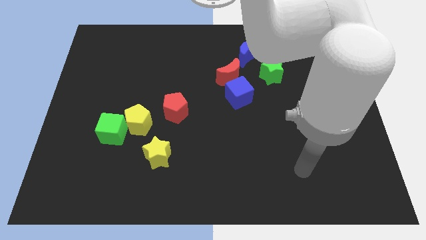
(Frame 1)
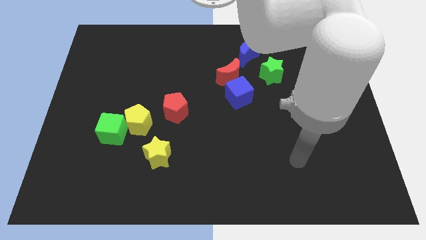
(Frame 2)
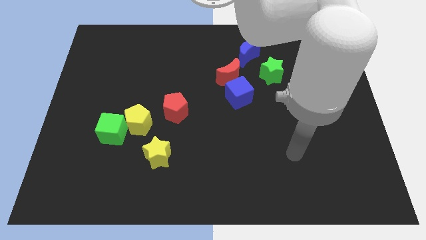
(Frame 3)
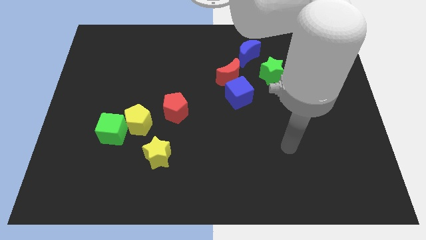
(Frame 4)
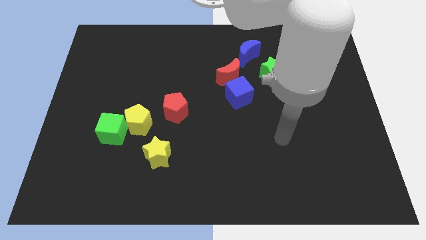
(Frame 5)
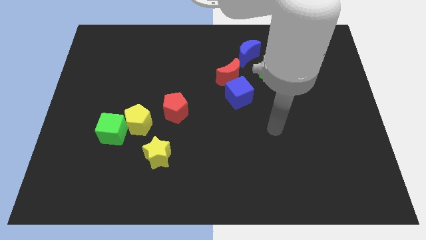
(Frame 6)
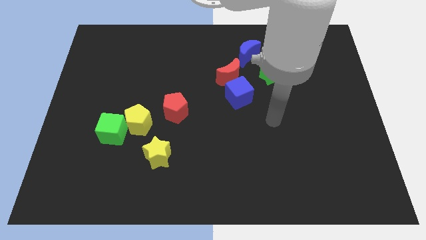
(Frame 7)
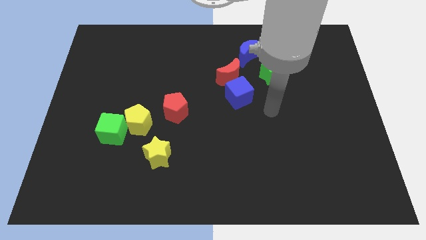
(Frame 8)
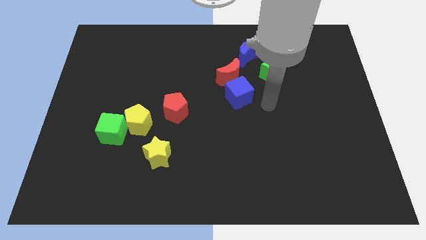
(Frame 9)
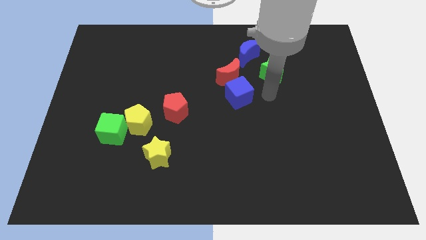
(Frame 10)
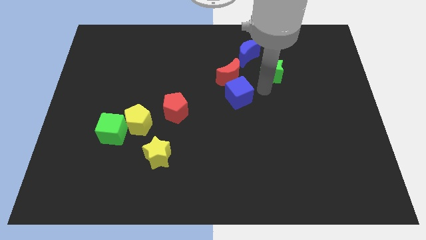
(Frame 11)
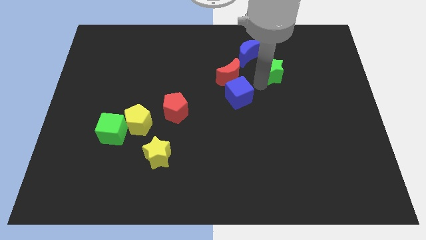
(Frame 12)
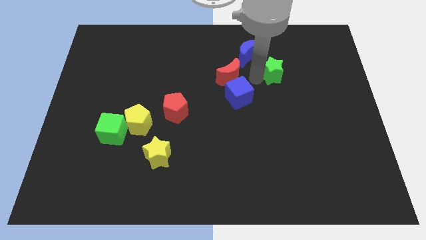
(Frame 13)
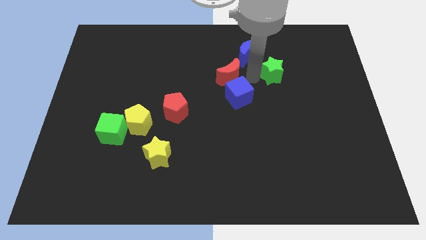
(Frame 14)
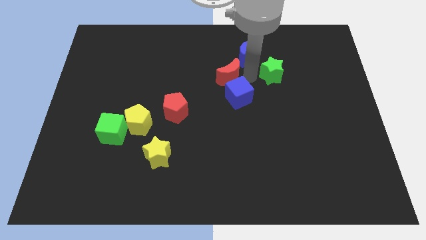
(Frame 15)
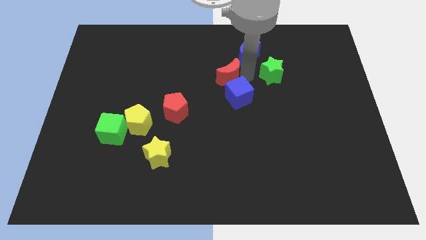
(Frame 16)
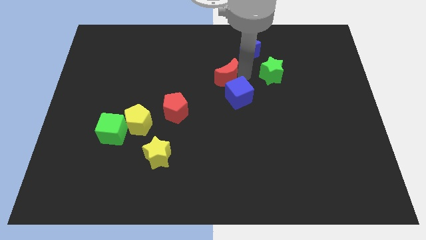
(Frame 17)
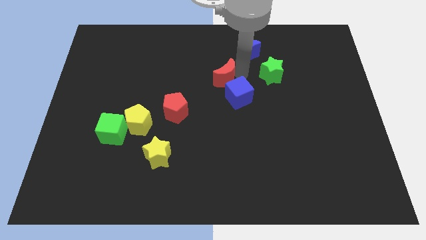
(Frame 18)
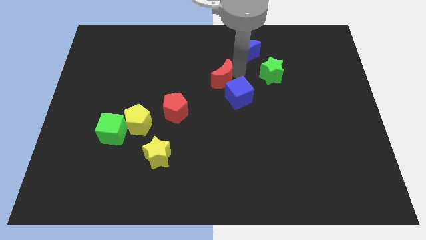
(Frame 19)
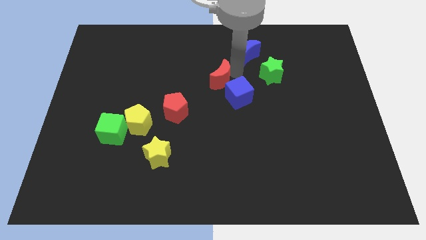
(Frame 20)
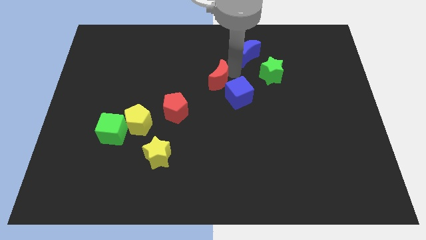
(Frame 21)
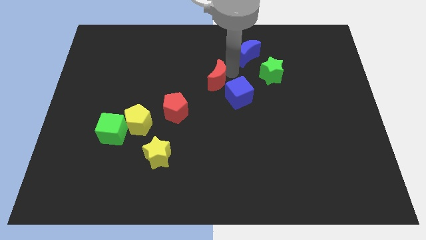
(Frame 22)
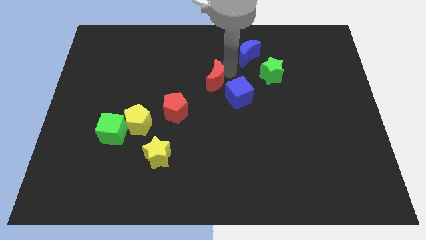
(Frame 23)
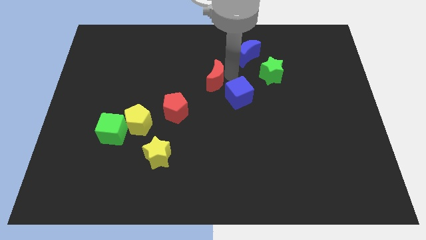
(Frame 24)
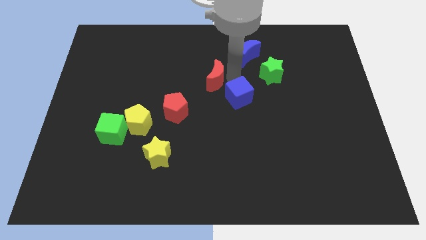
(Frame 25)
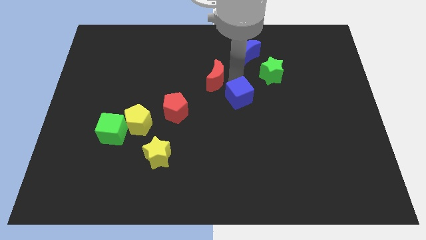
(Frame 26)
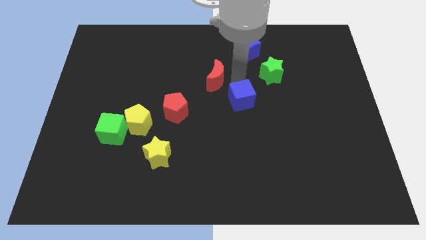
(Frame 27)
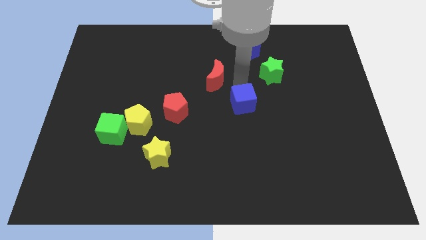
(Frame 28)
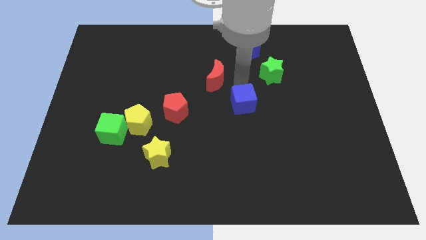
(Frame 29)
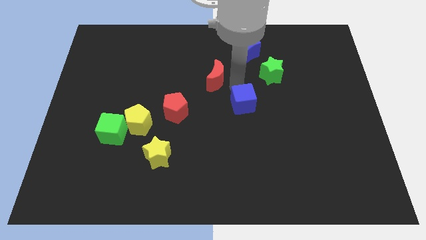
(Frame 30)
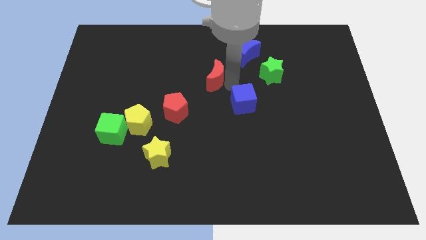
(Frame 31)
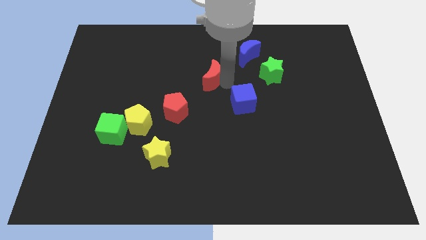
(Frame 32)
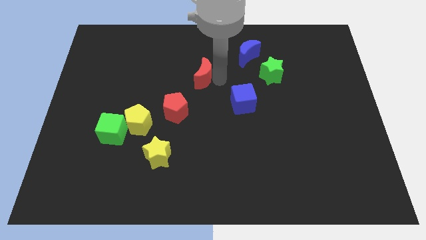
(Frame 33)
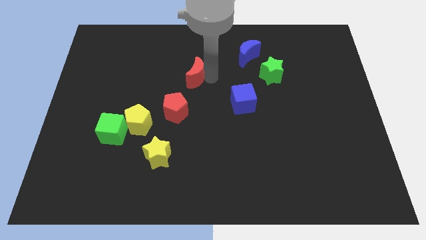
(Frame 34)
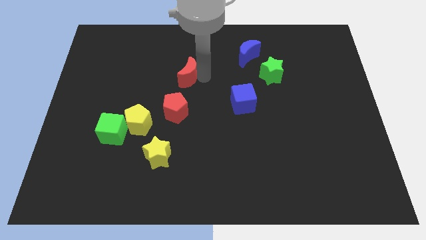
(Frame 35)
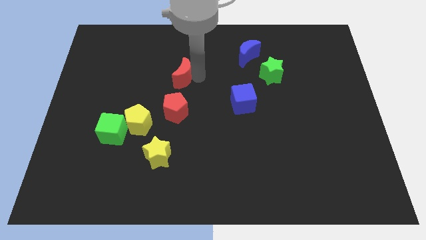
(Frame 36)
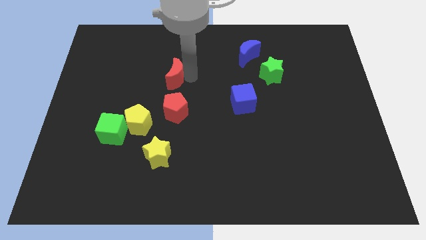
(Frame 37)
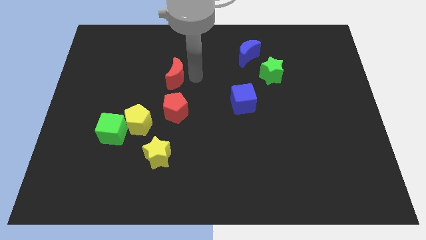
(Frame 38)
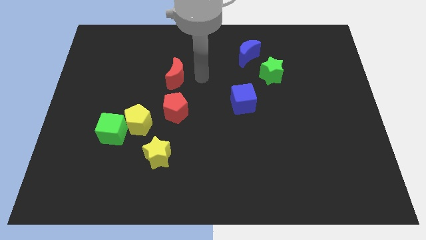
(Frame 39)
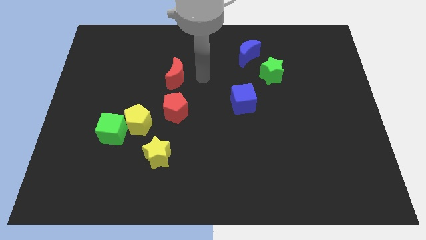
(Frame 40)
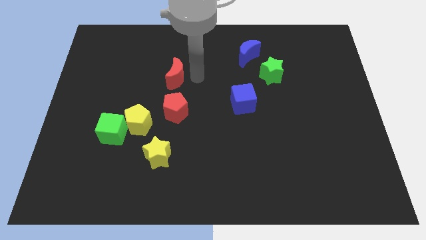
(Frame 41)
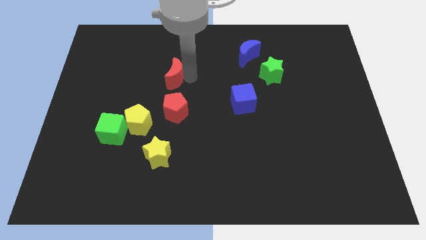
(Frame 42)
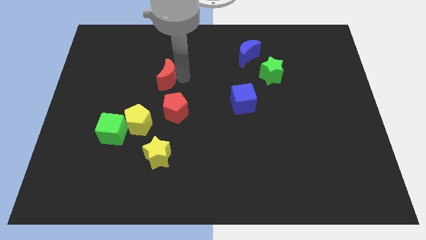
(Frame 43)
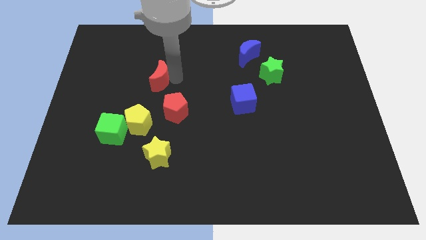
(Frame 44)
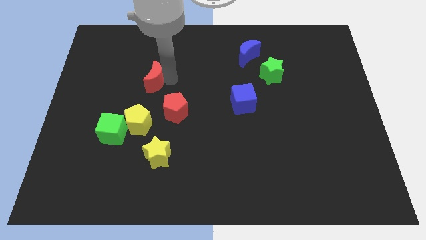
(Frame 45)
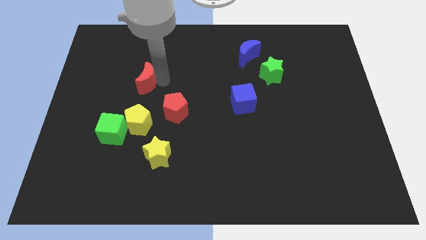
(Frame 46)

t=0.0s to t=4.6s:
push the red moon left

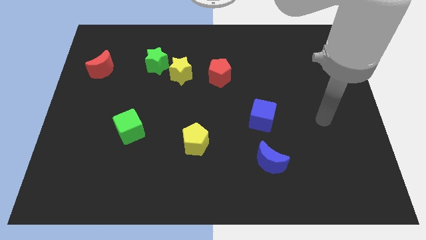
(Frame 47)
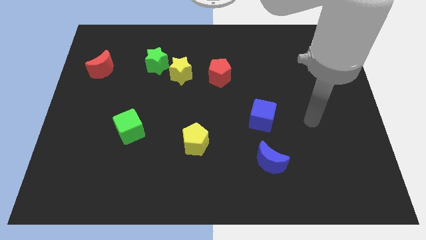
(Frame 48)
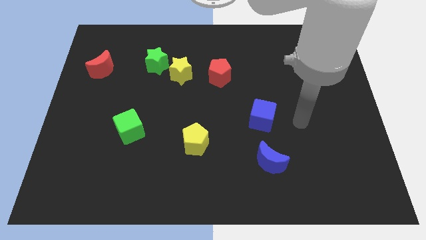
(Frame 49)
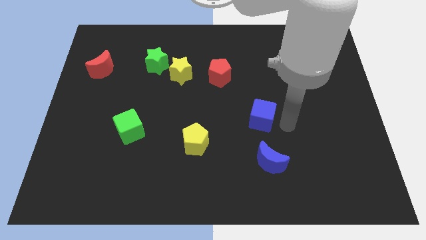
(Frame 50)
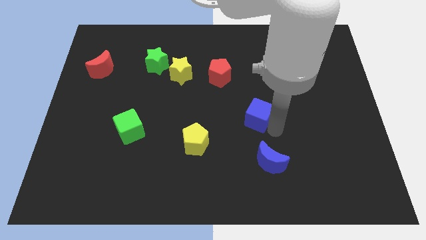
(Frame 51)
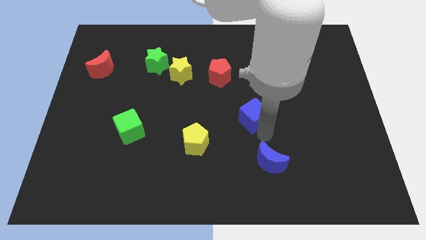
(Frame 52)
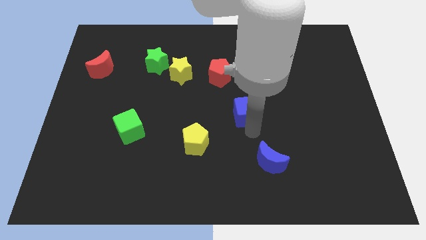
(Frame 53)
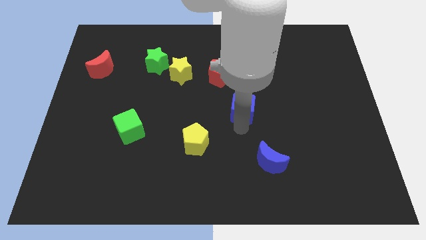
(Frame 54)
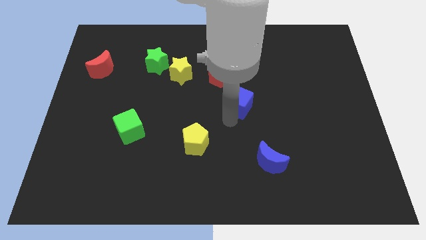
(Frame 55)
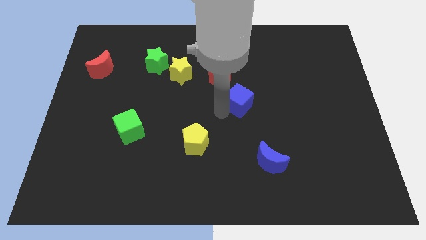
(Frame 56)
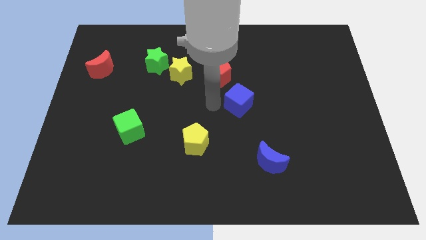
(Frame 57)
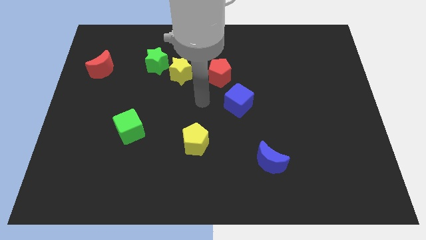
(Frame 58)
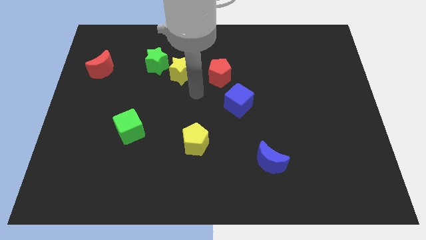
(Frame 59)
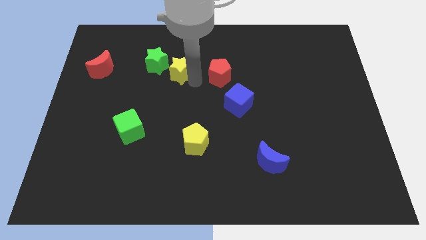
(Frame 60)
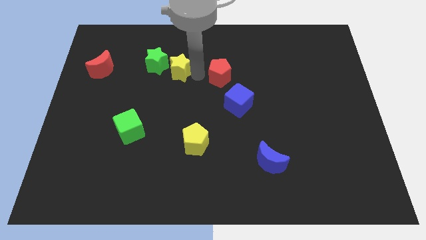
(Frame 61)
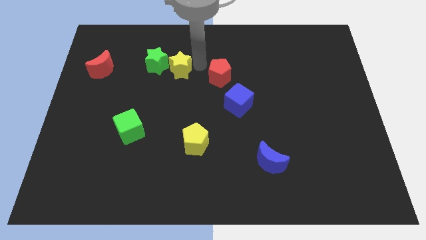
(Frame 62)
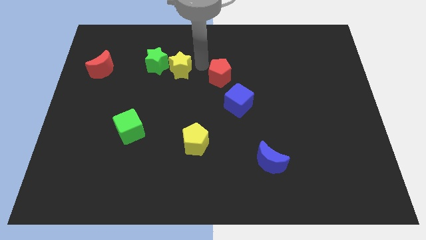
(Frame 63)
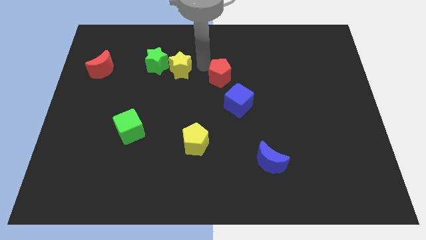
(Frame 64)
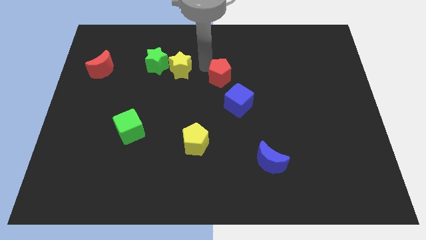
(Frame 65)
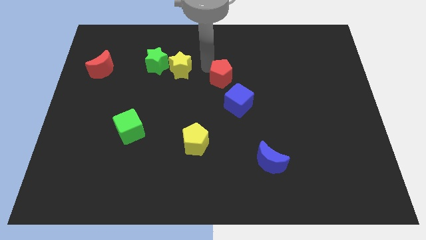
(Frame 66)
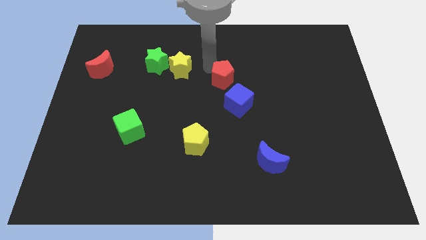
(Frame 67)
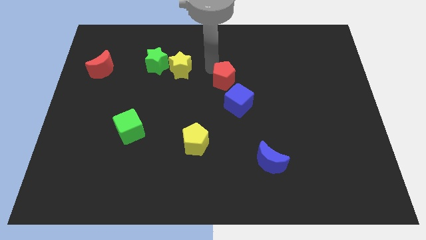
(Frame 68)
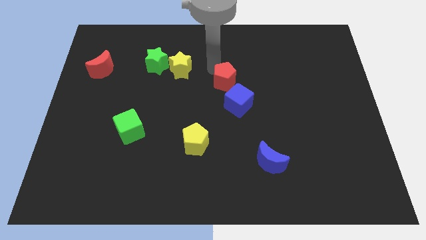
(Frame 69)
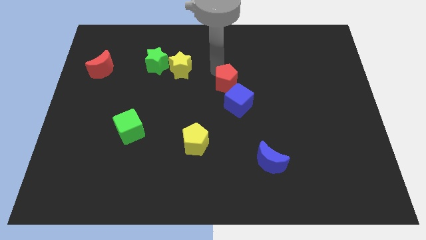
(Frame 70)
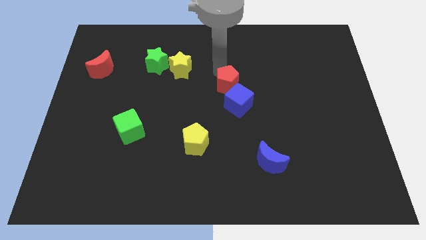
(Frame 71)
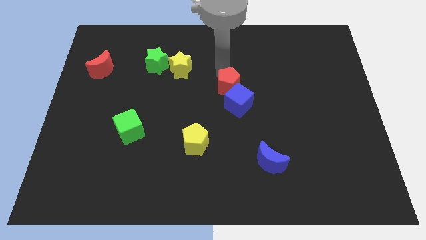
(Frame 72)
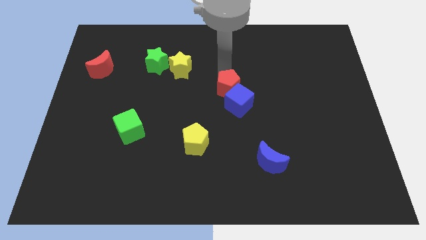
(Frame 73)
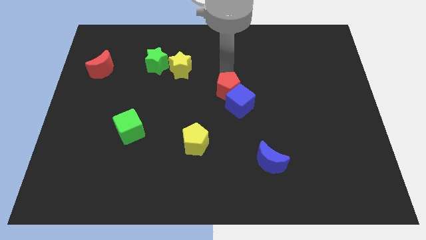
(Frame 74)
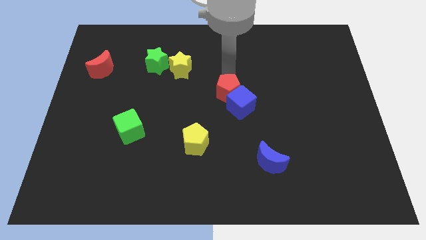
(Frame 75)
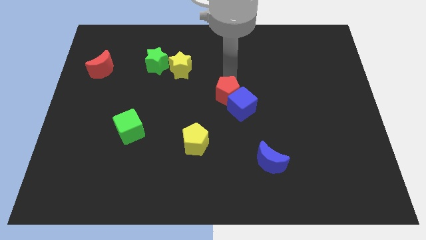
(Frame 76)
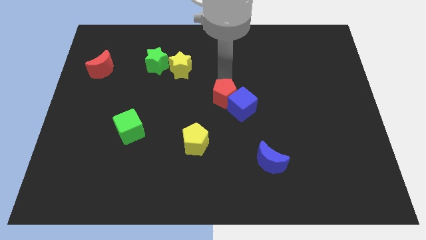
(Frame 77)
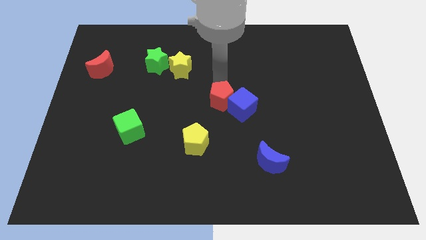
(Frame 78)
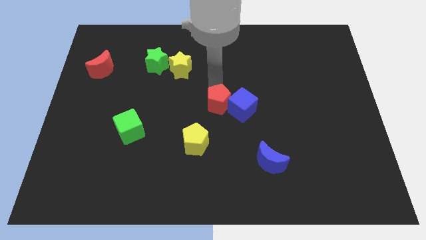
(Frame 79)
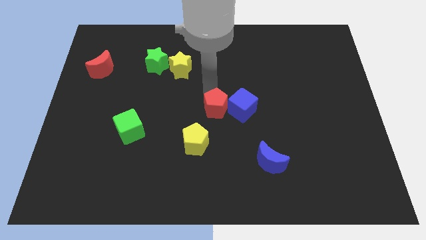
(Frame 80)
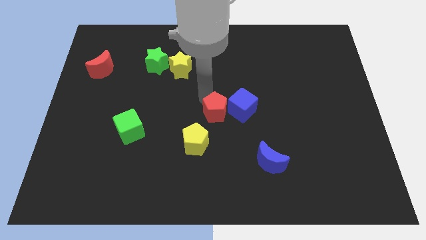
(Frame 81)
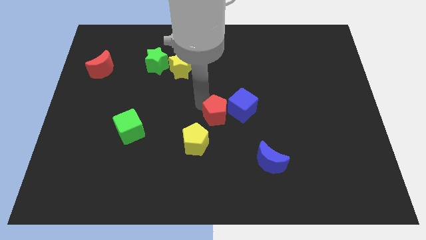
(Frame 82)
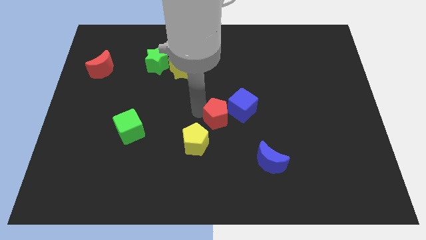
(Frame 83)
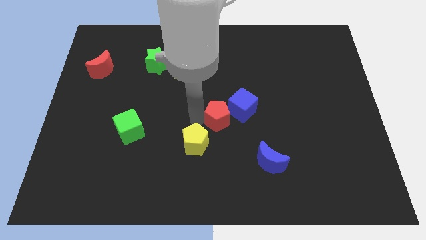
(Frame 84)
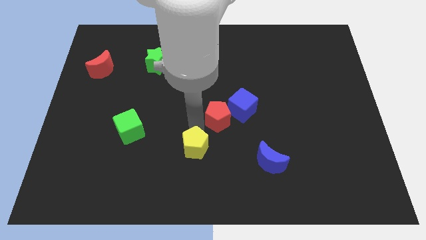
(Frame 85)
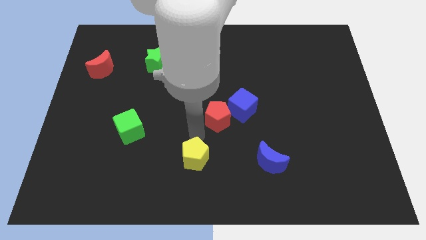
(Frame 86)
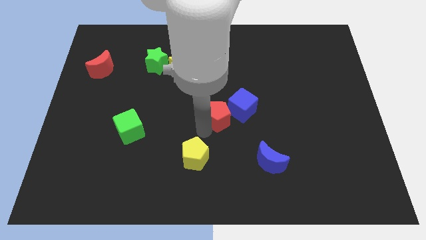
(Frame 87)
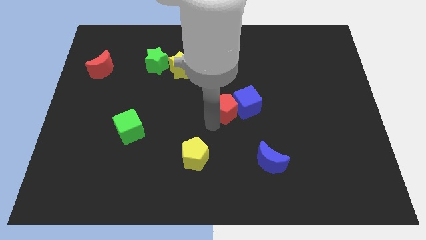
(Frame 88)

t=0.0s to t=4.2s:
push the red pentagon down and to the right a bit
